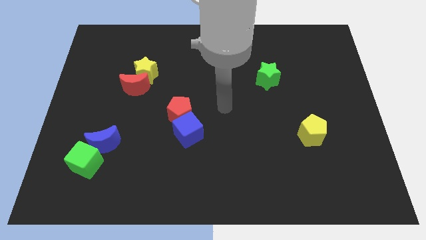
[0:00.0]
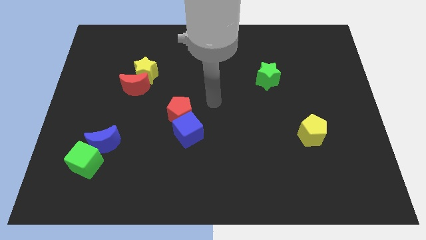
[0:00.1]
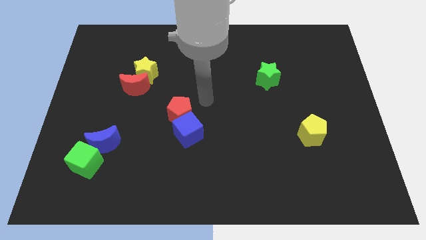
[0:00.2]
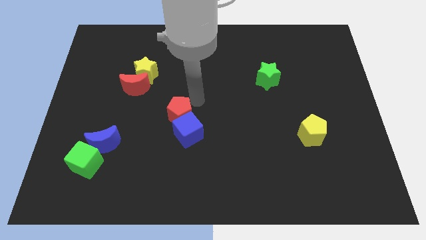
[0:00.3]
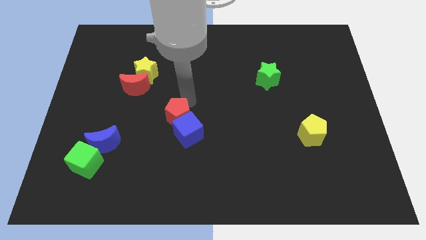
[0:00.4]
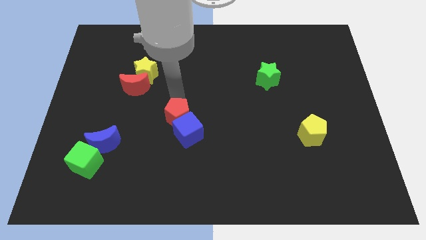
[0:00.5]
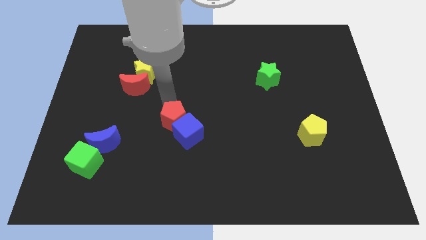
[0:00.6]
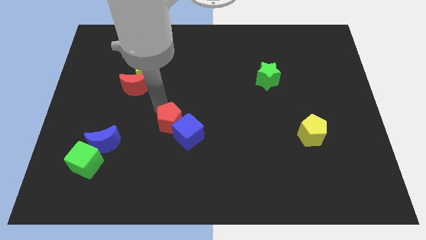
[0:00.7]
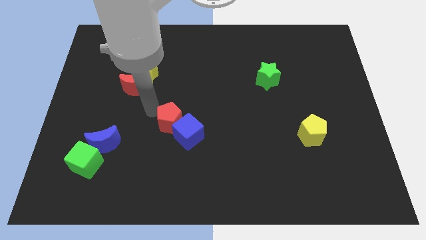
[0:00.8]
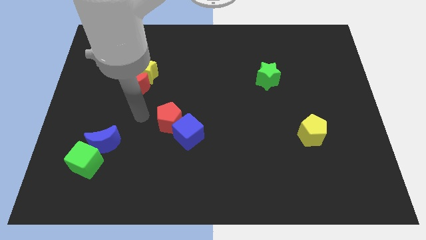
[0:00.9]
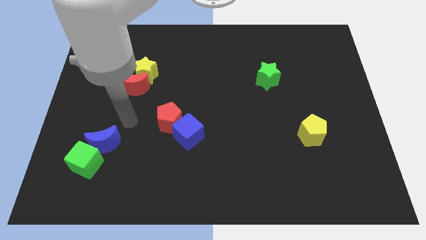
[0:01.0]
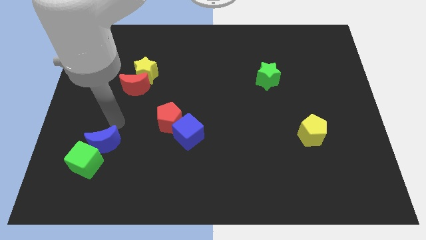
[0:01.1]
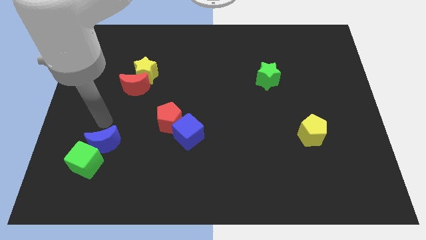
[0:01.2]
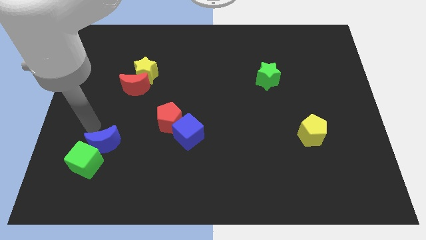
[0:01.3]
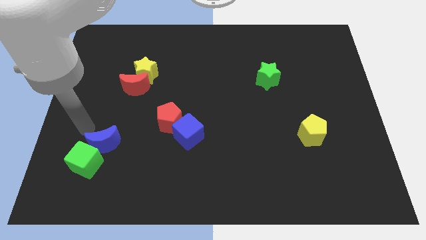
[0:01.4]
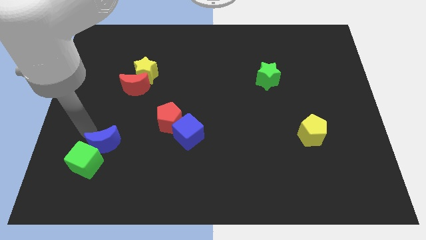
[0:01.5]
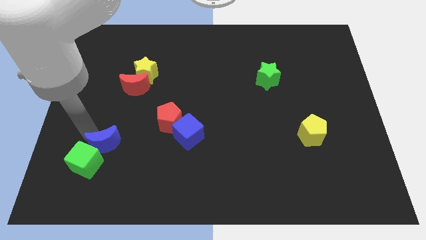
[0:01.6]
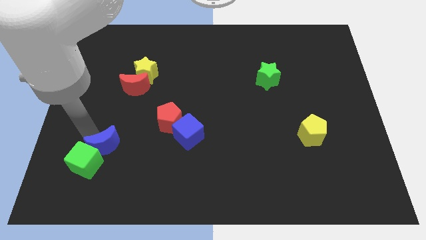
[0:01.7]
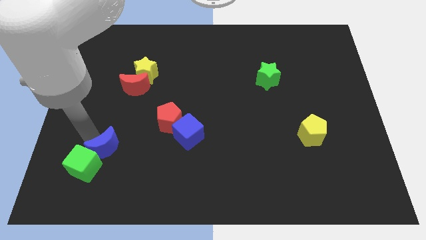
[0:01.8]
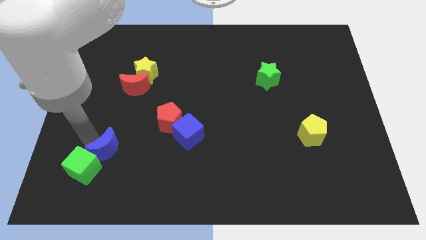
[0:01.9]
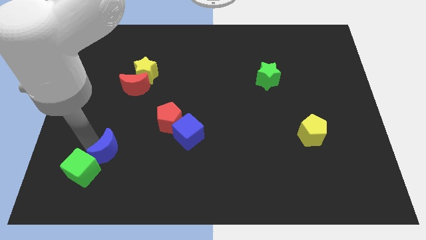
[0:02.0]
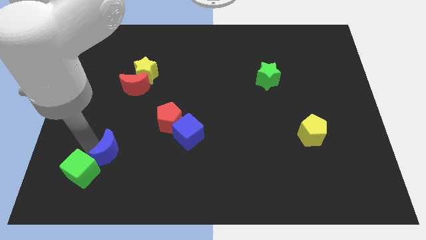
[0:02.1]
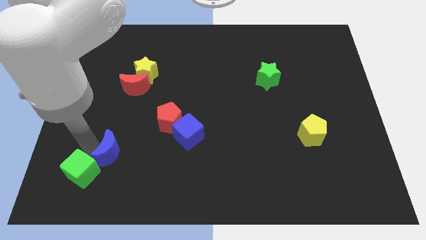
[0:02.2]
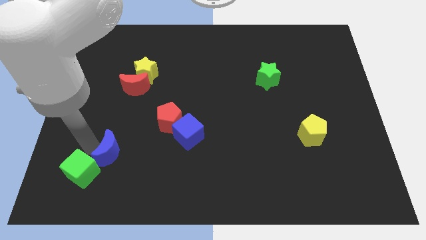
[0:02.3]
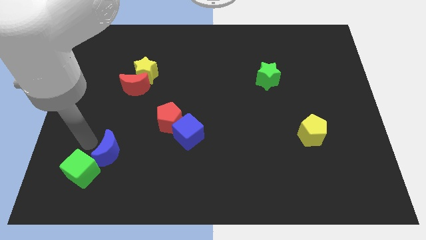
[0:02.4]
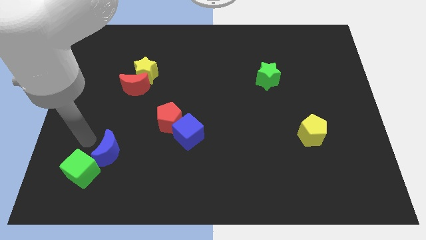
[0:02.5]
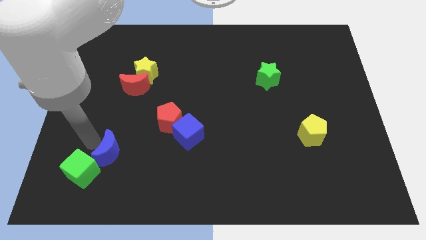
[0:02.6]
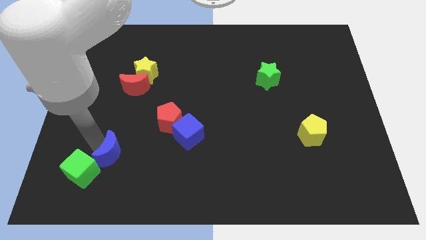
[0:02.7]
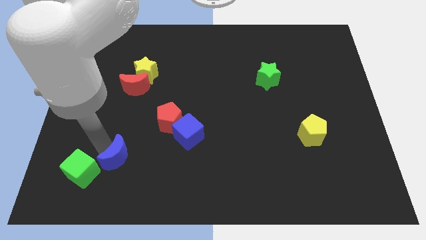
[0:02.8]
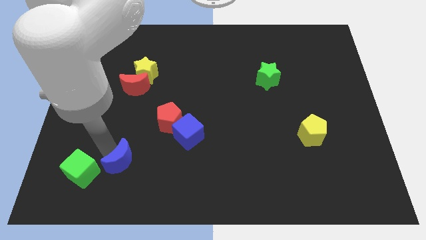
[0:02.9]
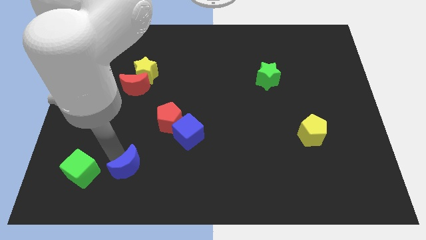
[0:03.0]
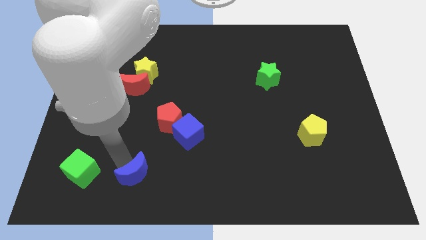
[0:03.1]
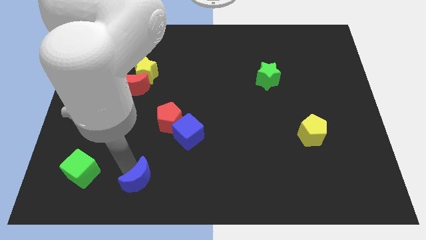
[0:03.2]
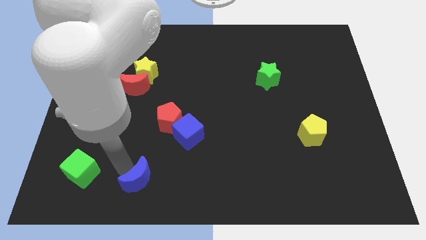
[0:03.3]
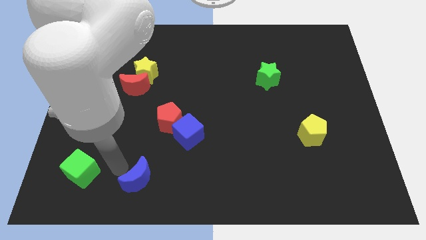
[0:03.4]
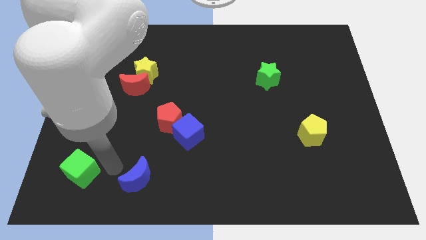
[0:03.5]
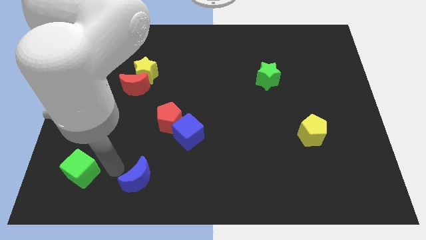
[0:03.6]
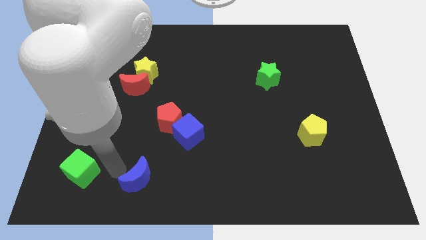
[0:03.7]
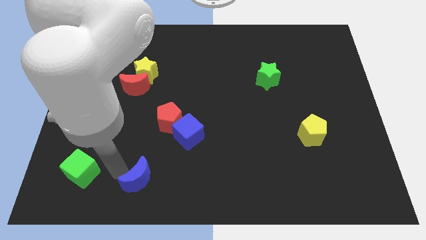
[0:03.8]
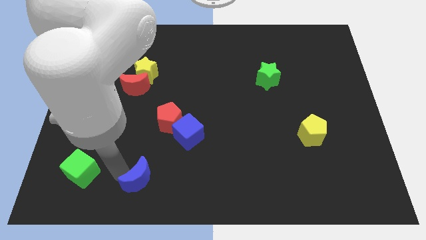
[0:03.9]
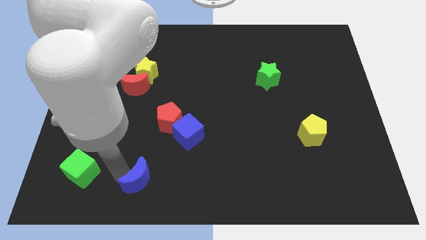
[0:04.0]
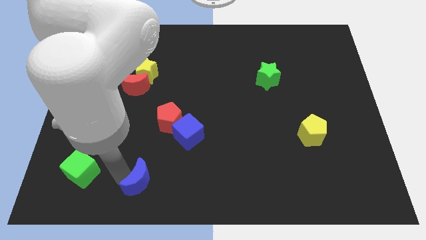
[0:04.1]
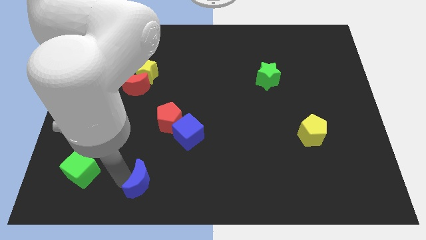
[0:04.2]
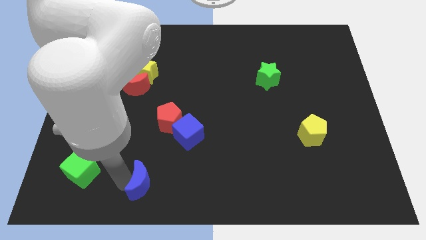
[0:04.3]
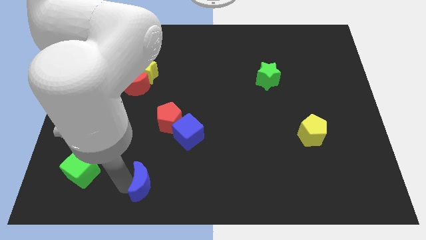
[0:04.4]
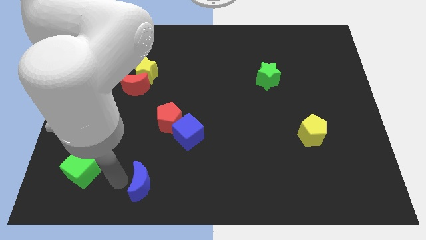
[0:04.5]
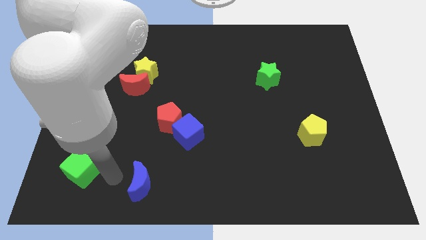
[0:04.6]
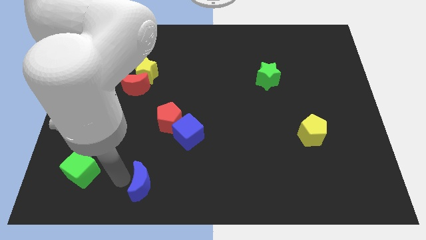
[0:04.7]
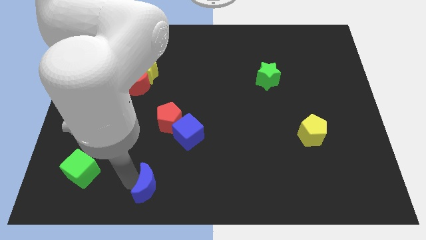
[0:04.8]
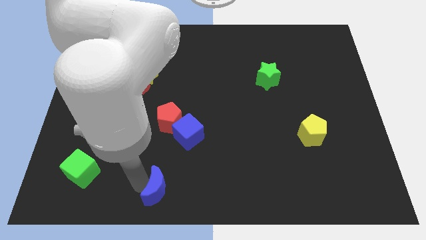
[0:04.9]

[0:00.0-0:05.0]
push the blue moon to the bottom

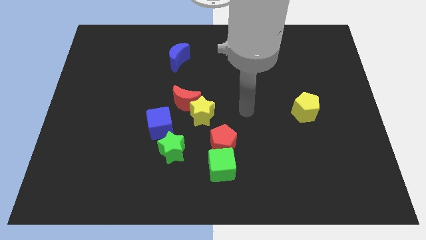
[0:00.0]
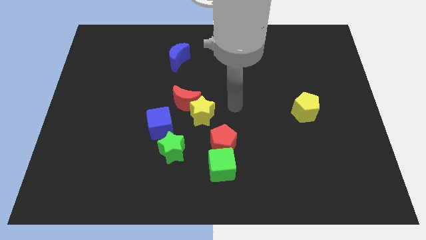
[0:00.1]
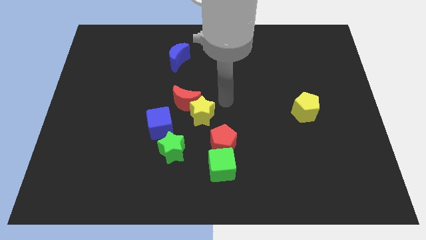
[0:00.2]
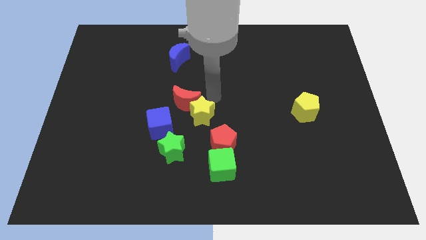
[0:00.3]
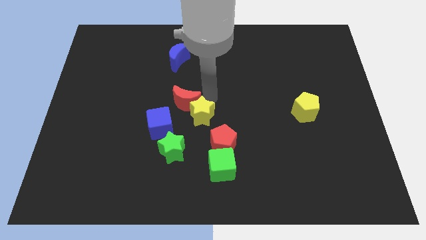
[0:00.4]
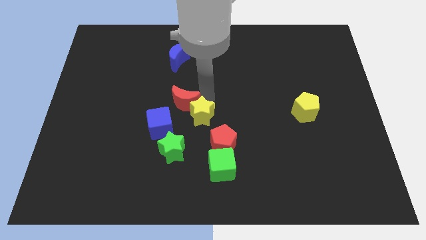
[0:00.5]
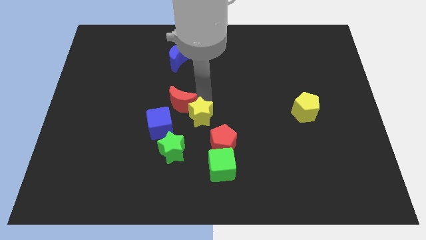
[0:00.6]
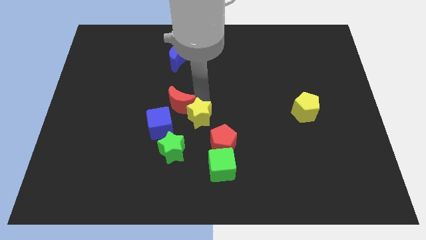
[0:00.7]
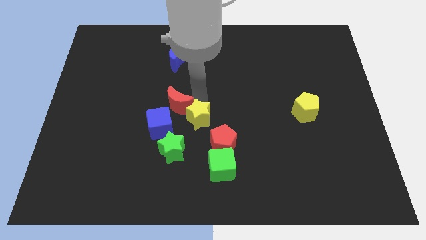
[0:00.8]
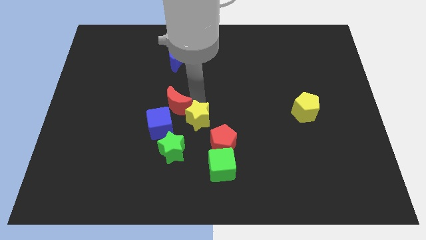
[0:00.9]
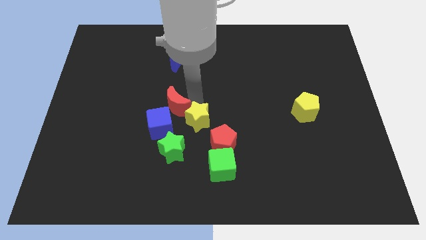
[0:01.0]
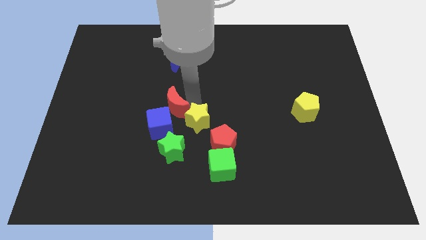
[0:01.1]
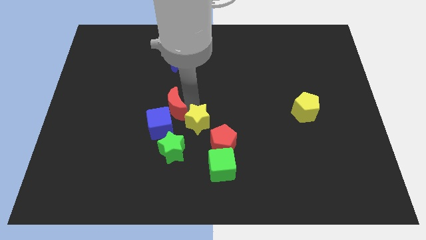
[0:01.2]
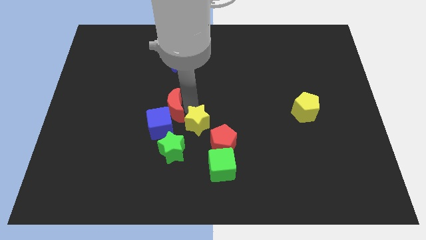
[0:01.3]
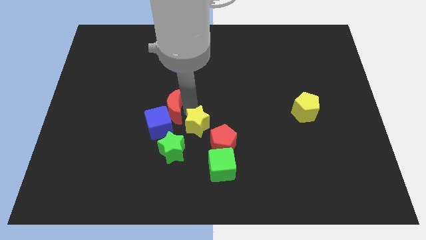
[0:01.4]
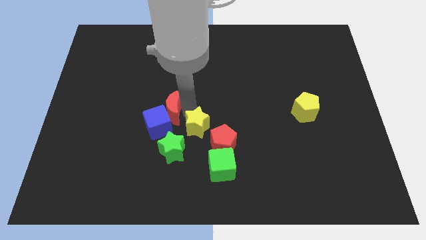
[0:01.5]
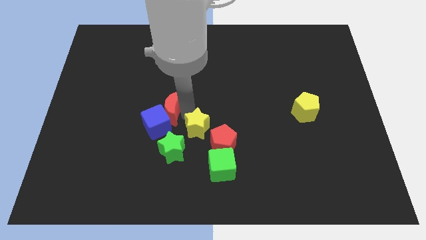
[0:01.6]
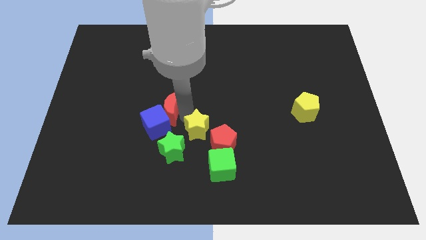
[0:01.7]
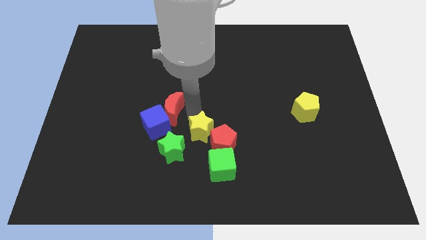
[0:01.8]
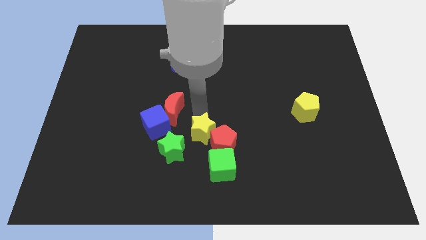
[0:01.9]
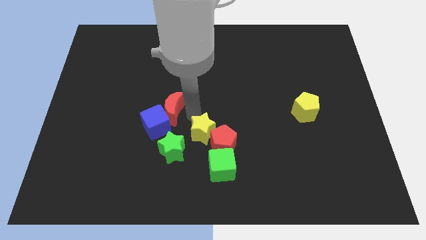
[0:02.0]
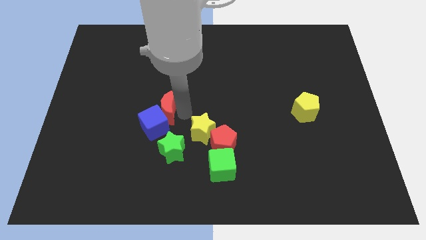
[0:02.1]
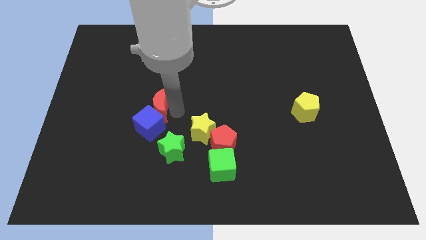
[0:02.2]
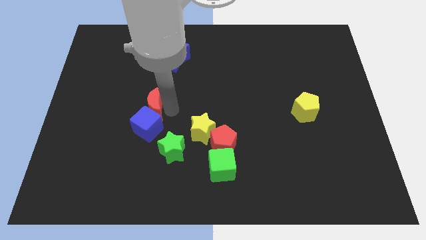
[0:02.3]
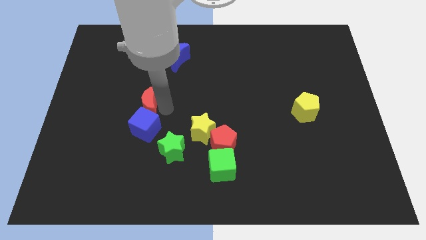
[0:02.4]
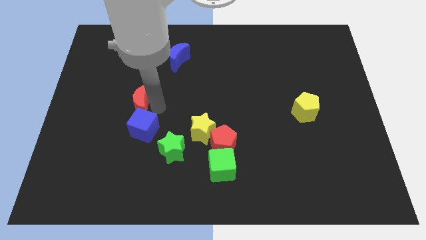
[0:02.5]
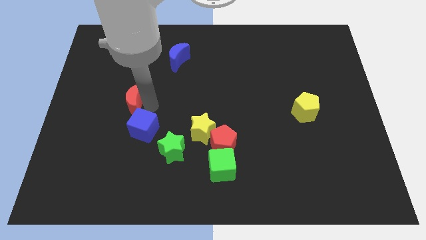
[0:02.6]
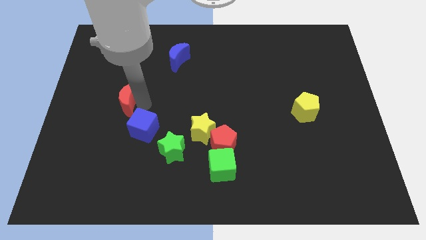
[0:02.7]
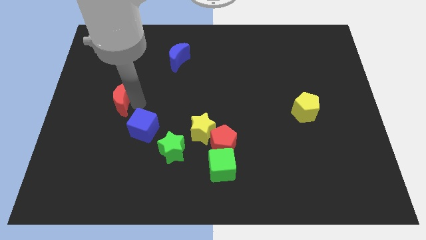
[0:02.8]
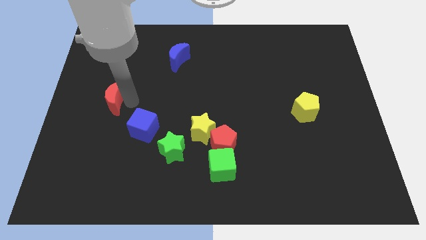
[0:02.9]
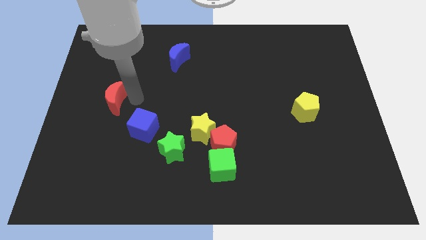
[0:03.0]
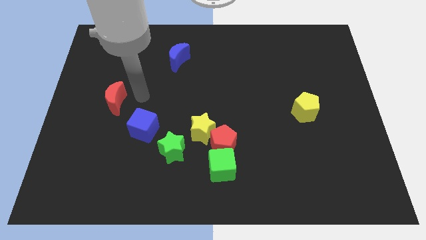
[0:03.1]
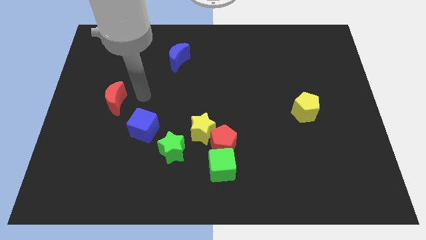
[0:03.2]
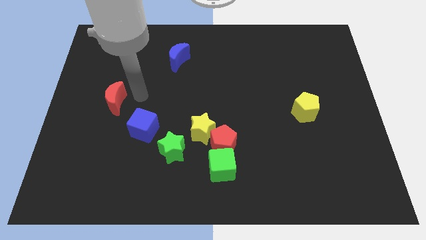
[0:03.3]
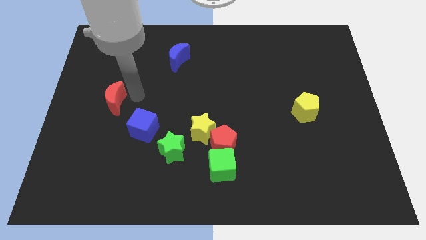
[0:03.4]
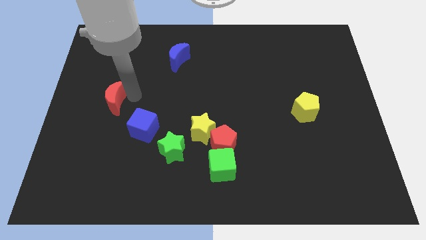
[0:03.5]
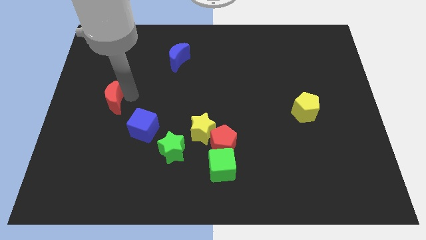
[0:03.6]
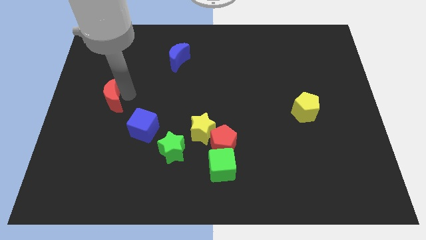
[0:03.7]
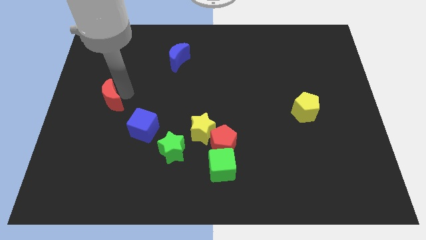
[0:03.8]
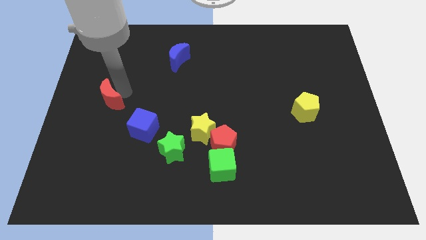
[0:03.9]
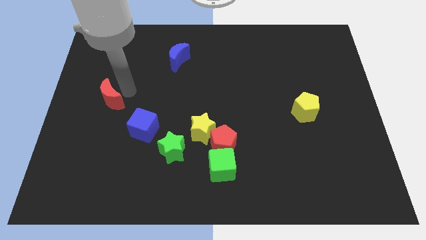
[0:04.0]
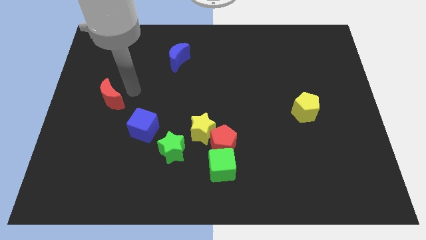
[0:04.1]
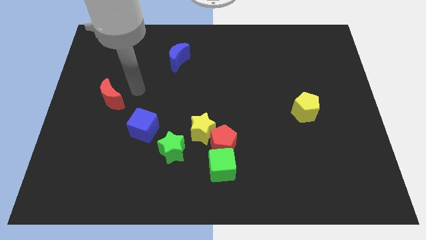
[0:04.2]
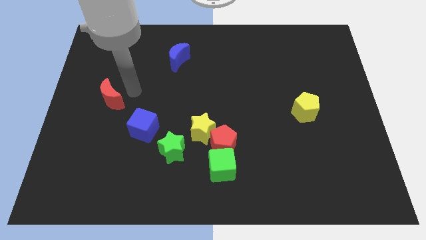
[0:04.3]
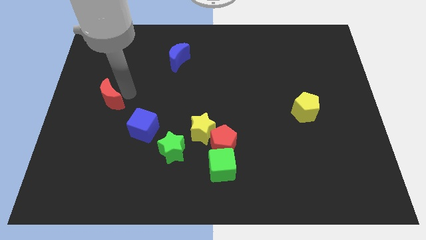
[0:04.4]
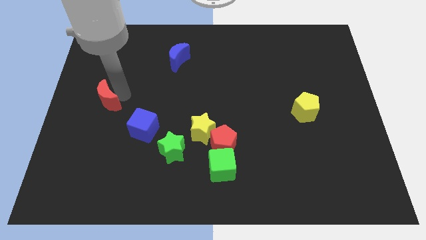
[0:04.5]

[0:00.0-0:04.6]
move the red moon to the left side of the board
